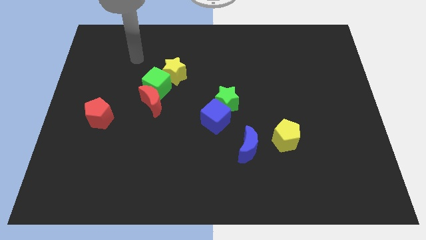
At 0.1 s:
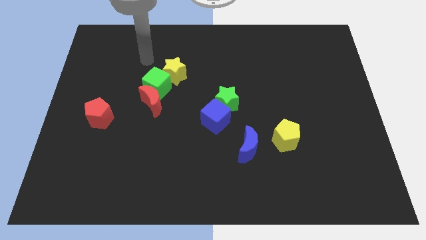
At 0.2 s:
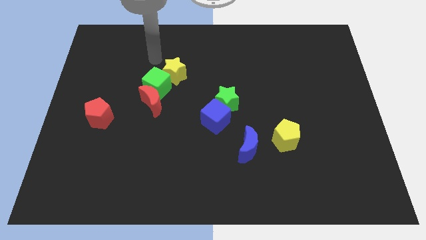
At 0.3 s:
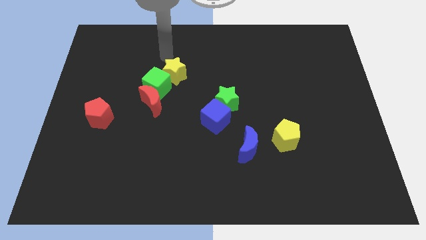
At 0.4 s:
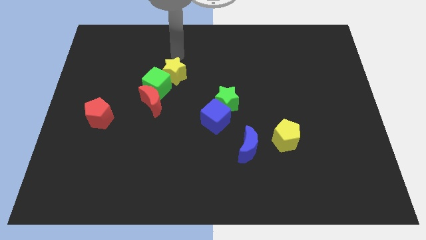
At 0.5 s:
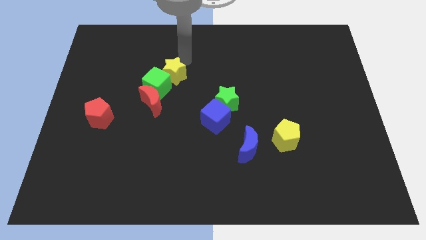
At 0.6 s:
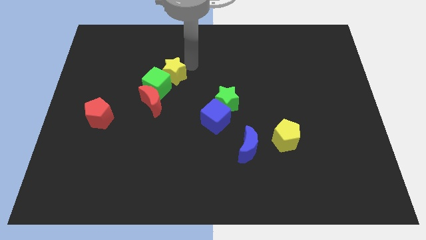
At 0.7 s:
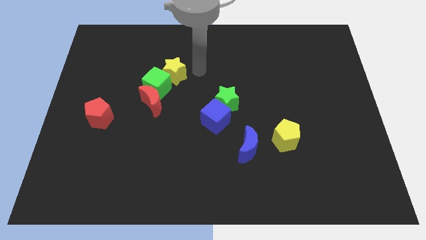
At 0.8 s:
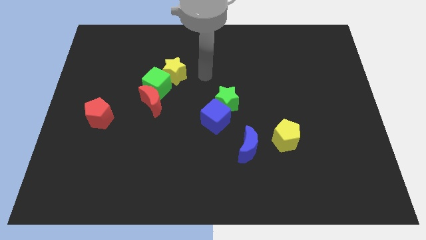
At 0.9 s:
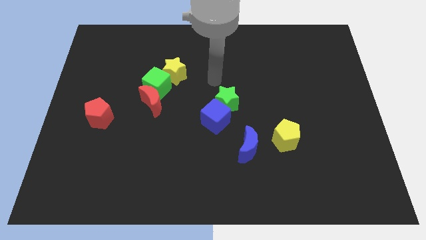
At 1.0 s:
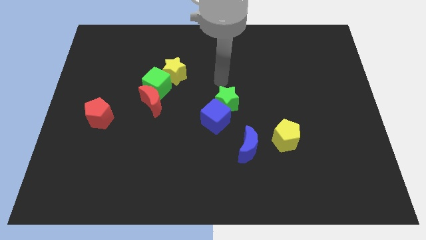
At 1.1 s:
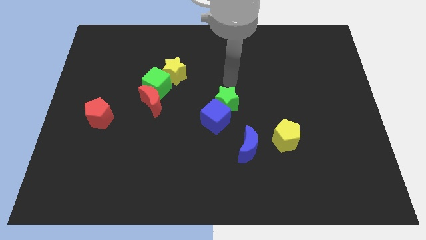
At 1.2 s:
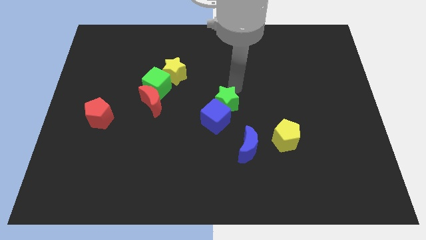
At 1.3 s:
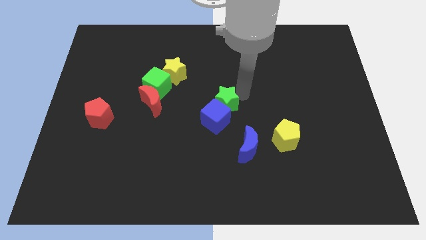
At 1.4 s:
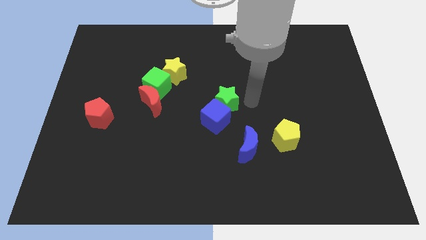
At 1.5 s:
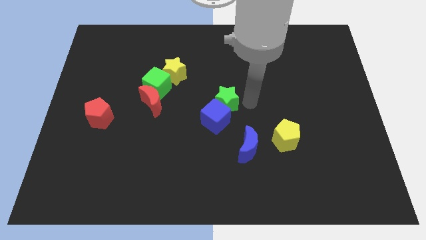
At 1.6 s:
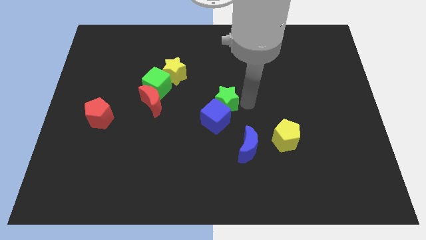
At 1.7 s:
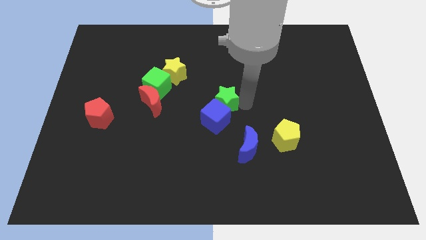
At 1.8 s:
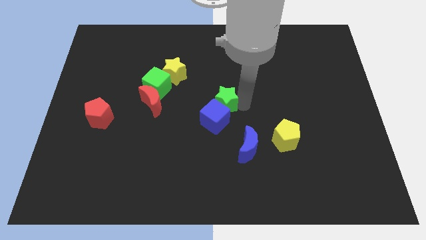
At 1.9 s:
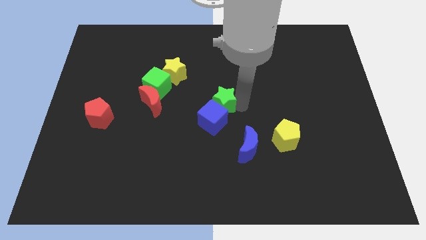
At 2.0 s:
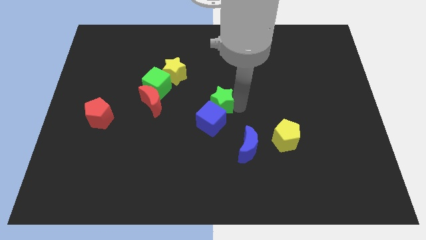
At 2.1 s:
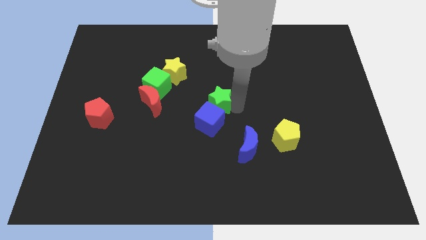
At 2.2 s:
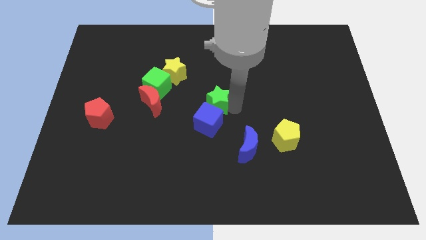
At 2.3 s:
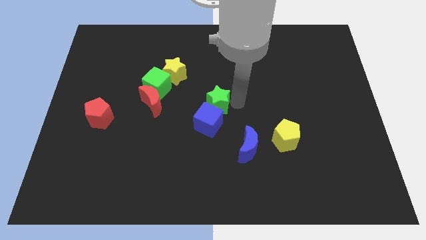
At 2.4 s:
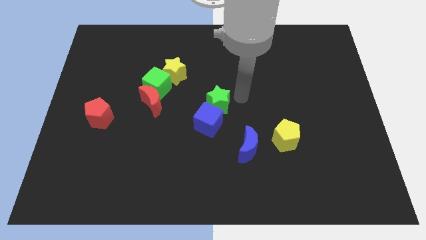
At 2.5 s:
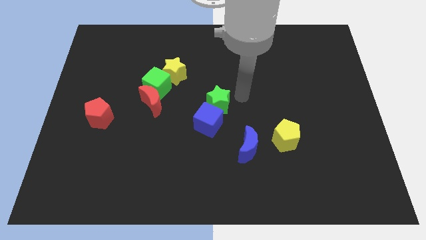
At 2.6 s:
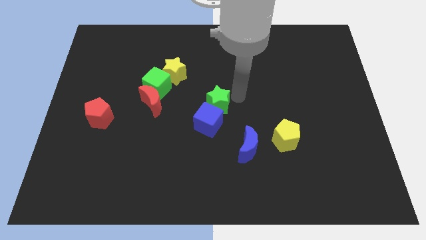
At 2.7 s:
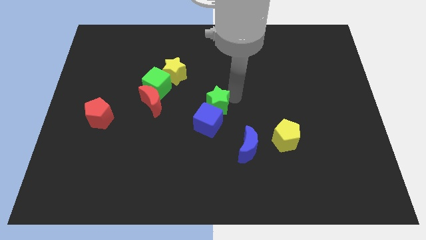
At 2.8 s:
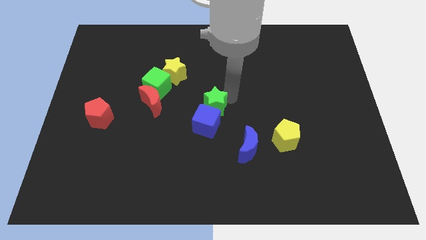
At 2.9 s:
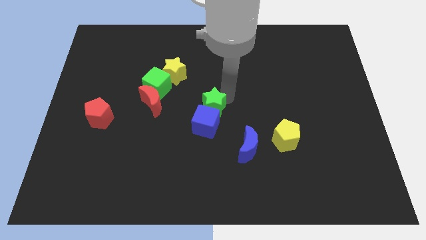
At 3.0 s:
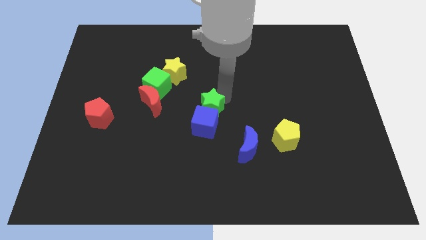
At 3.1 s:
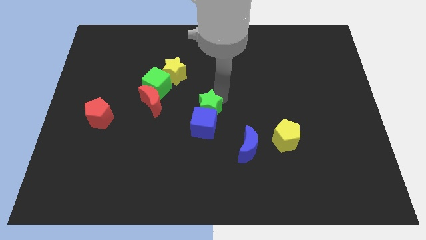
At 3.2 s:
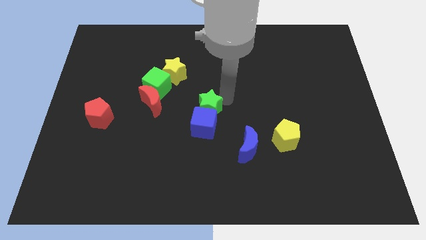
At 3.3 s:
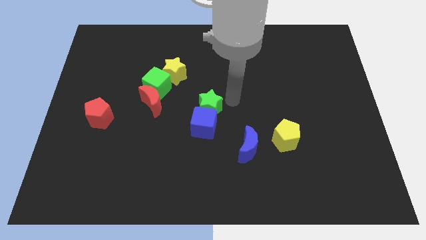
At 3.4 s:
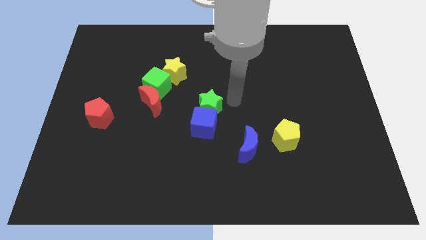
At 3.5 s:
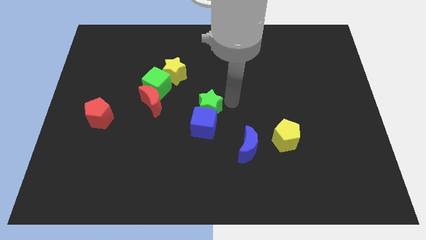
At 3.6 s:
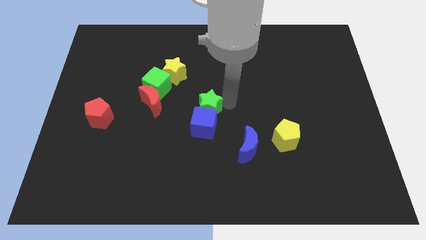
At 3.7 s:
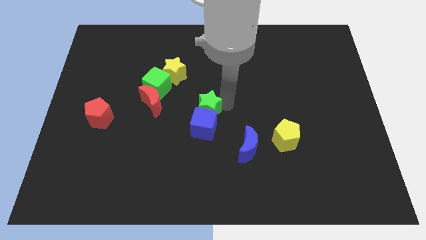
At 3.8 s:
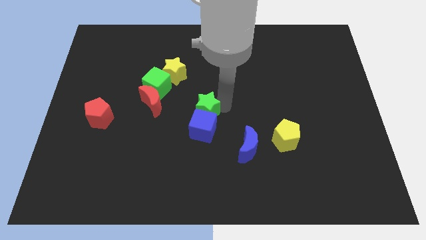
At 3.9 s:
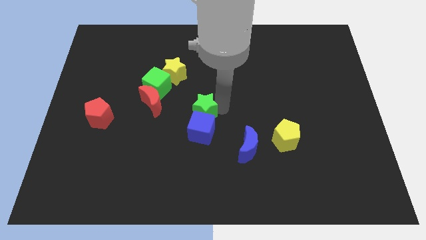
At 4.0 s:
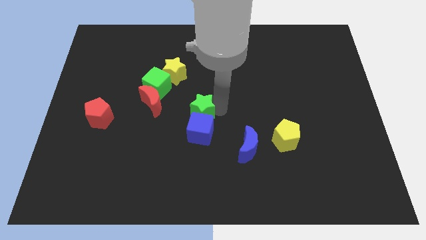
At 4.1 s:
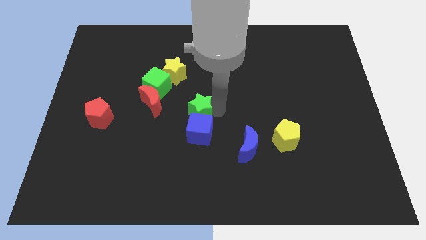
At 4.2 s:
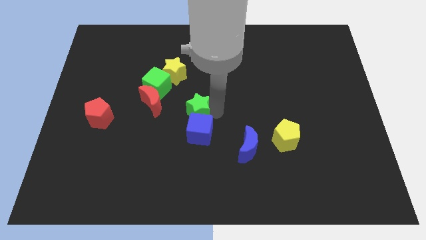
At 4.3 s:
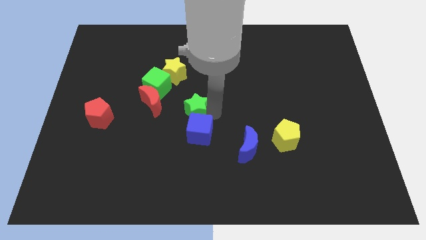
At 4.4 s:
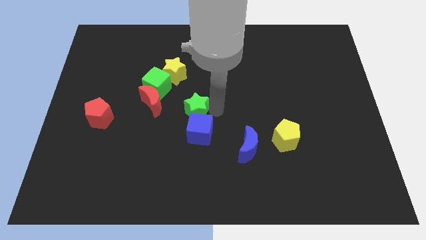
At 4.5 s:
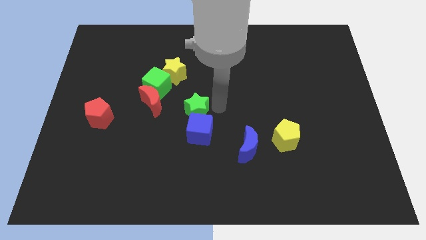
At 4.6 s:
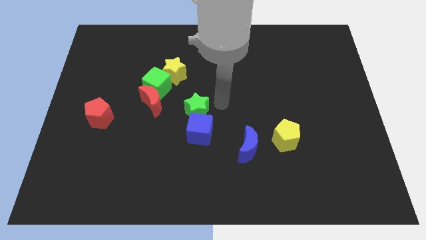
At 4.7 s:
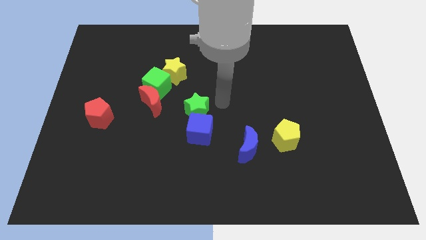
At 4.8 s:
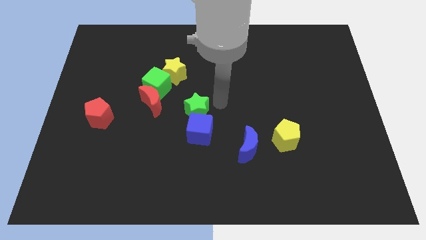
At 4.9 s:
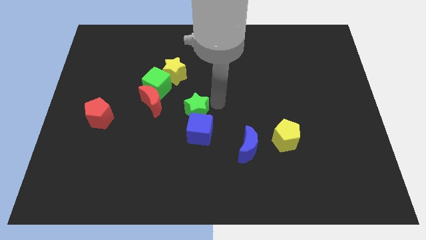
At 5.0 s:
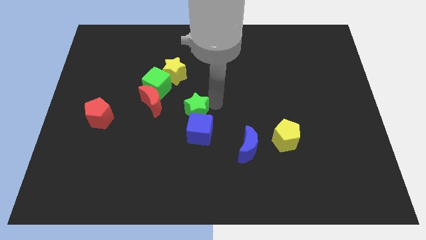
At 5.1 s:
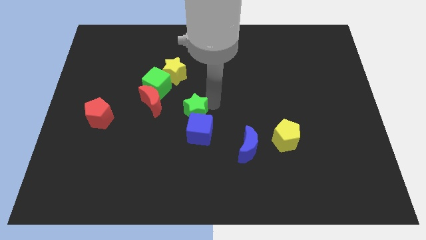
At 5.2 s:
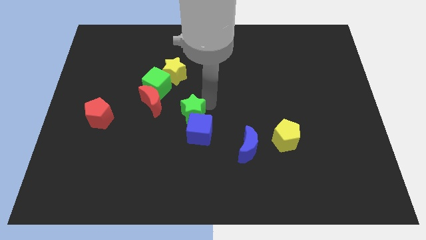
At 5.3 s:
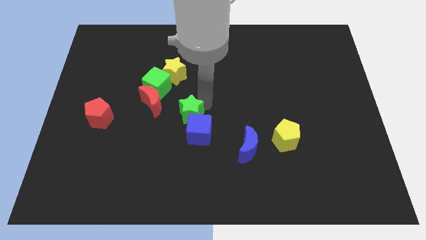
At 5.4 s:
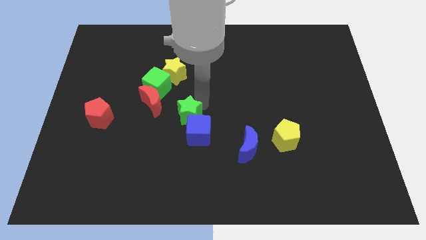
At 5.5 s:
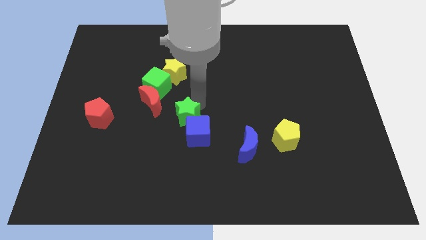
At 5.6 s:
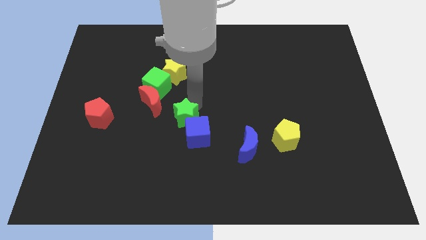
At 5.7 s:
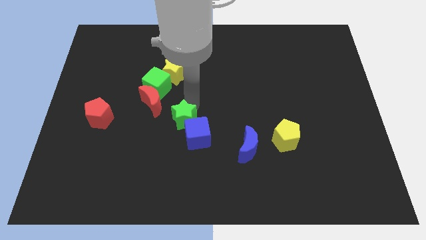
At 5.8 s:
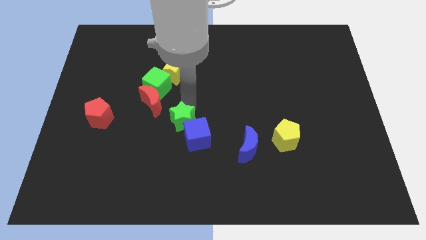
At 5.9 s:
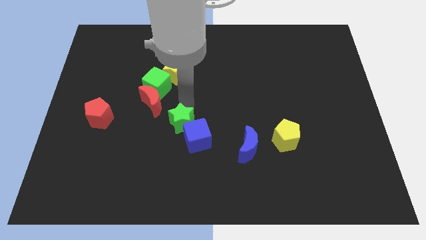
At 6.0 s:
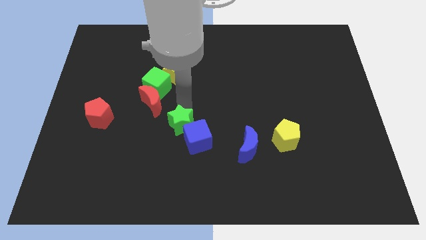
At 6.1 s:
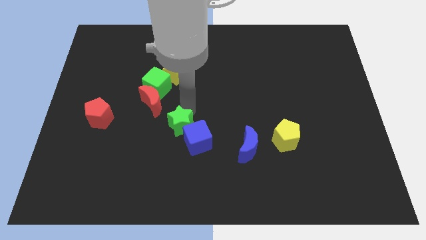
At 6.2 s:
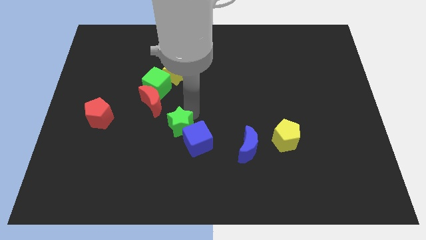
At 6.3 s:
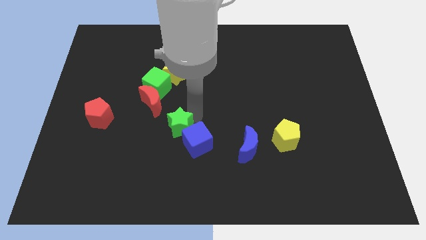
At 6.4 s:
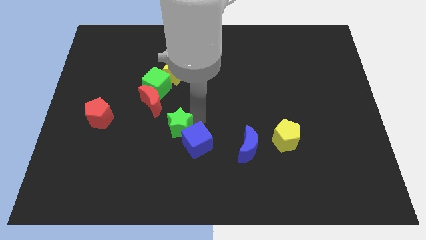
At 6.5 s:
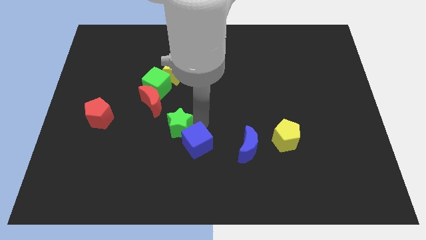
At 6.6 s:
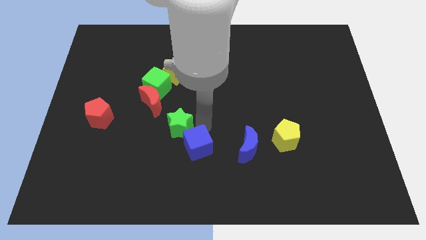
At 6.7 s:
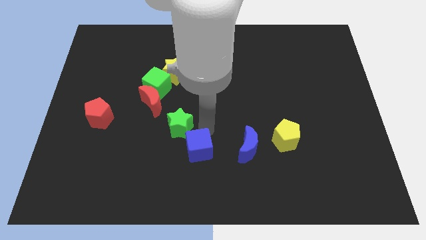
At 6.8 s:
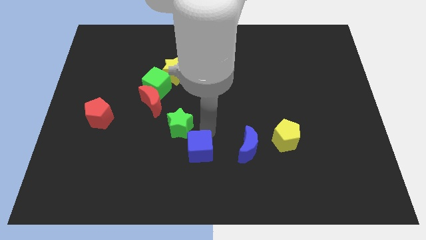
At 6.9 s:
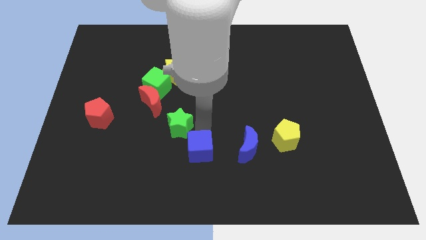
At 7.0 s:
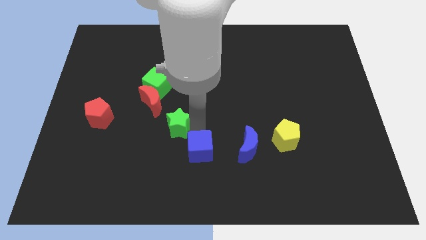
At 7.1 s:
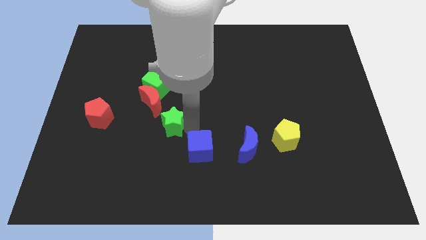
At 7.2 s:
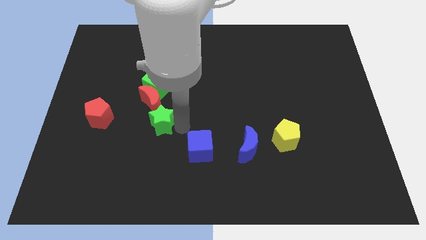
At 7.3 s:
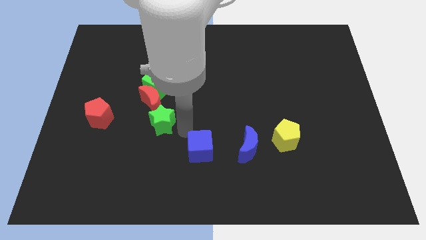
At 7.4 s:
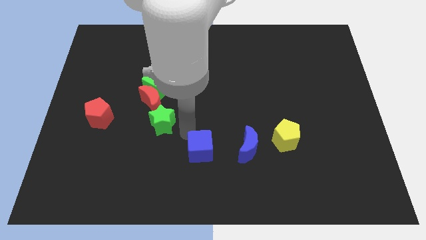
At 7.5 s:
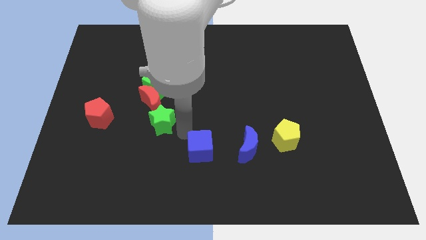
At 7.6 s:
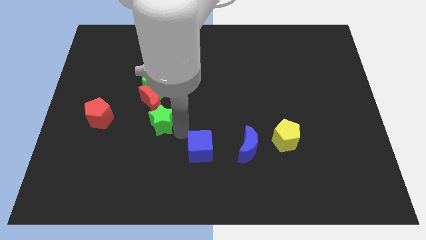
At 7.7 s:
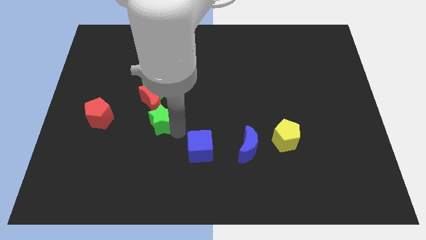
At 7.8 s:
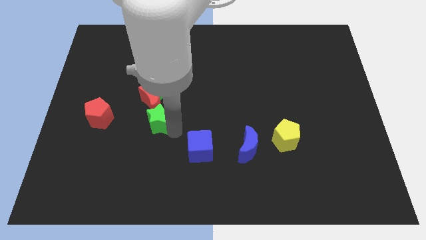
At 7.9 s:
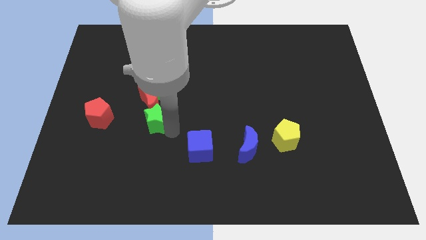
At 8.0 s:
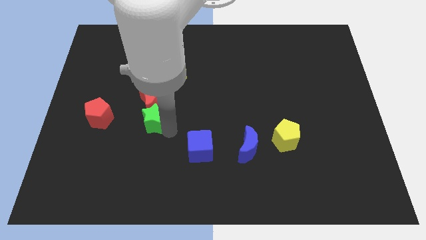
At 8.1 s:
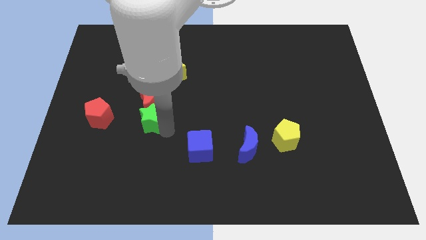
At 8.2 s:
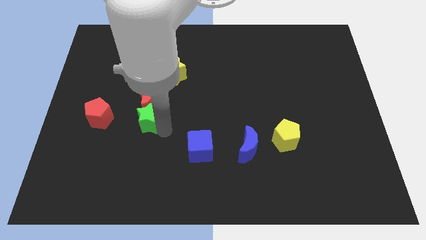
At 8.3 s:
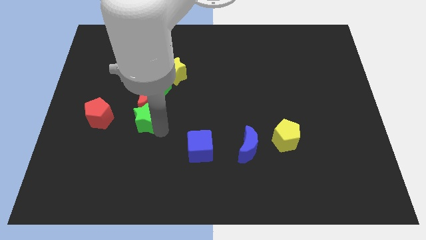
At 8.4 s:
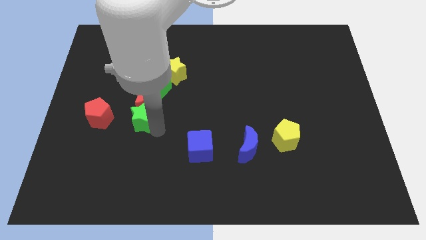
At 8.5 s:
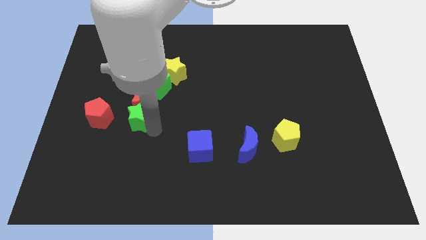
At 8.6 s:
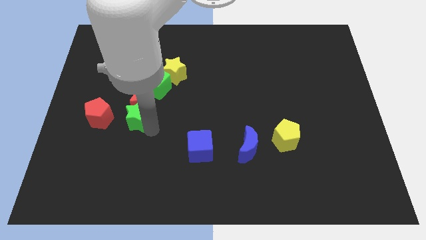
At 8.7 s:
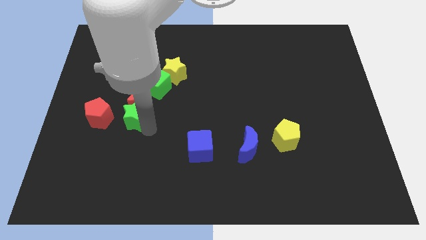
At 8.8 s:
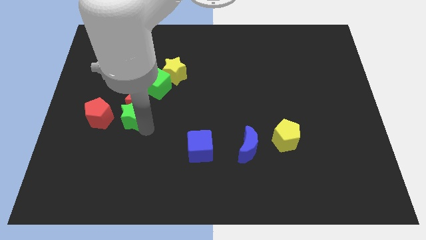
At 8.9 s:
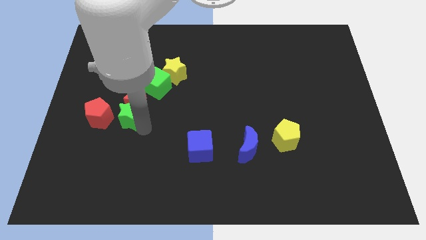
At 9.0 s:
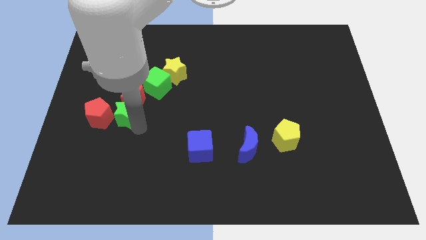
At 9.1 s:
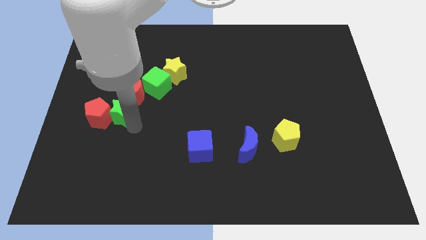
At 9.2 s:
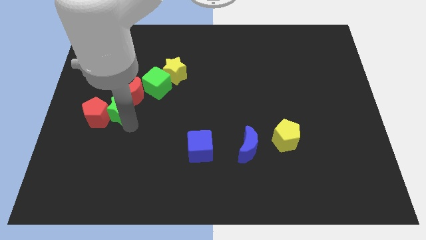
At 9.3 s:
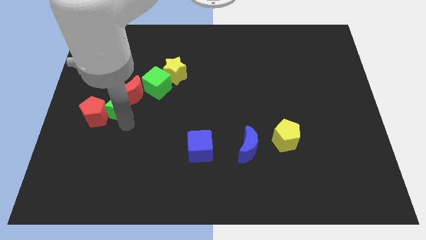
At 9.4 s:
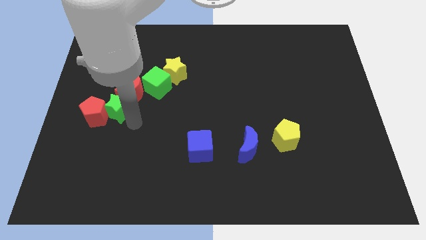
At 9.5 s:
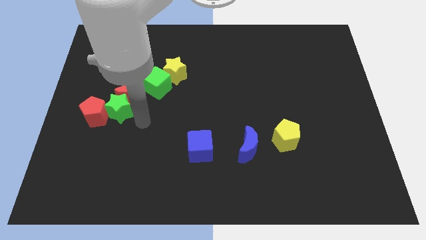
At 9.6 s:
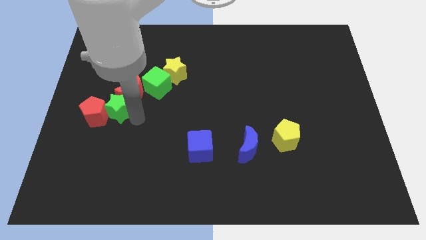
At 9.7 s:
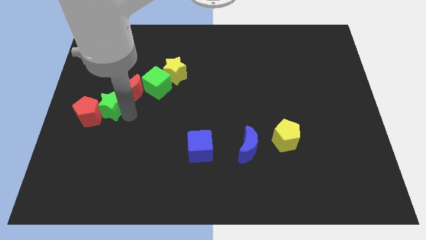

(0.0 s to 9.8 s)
slide the green star to the left of the red moon
